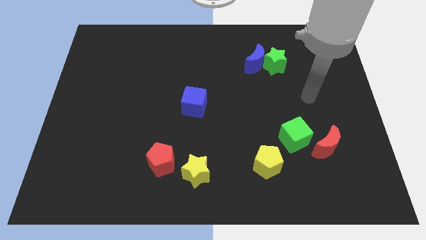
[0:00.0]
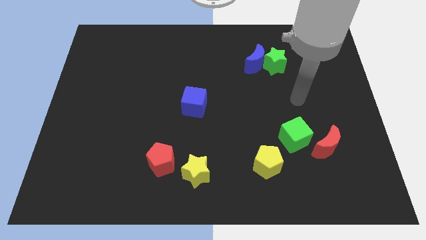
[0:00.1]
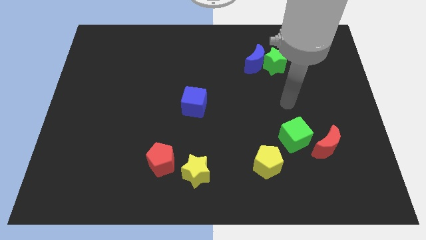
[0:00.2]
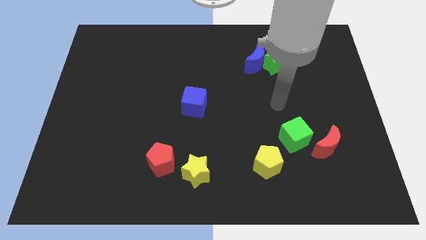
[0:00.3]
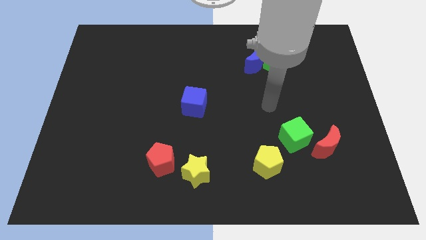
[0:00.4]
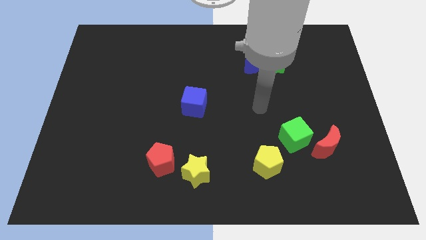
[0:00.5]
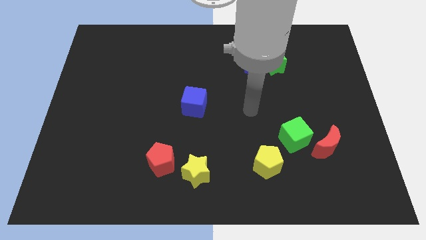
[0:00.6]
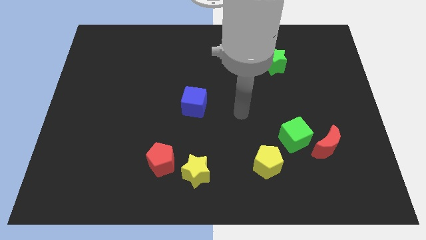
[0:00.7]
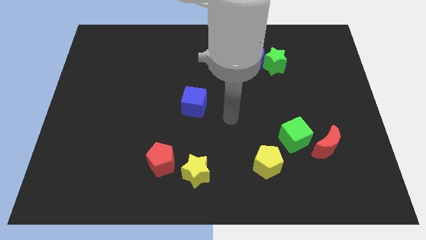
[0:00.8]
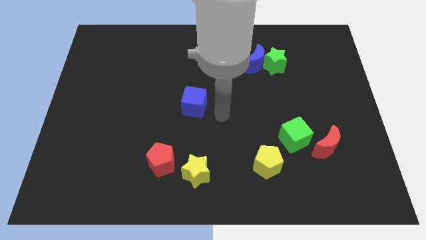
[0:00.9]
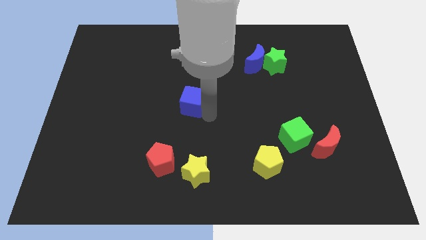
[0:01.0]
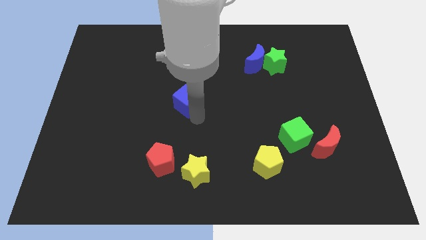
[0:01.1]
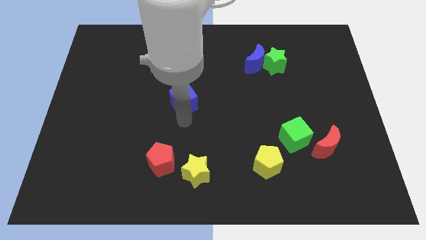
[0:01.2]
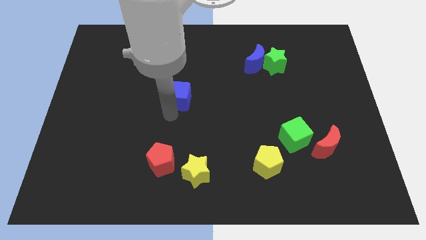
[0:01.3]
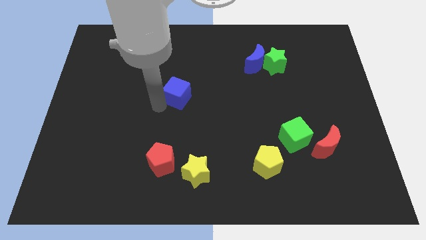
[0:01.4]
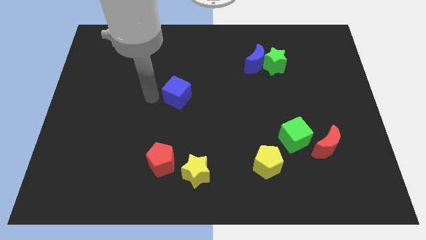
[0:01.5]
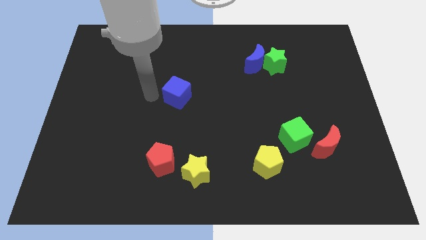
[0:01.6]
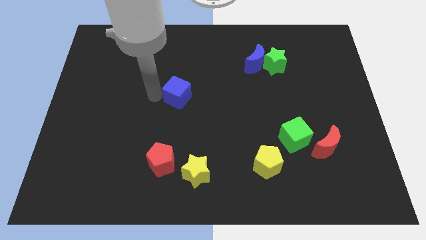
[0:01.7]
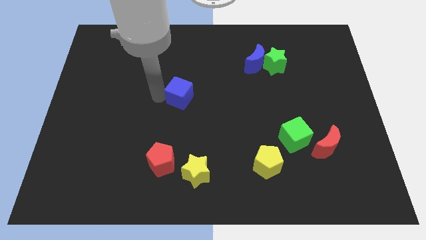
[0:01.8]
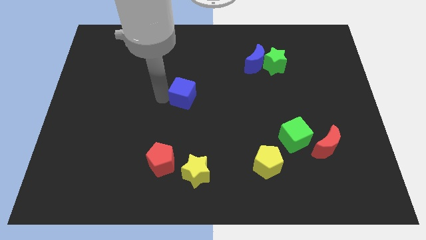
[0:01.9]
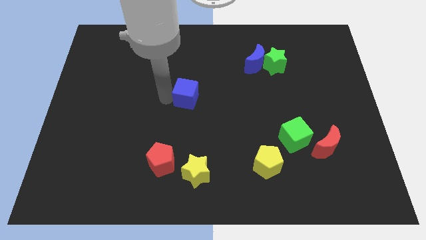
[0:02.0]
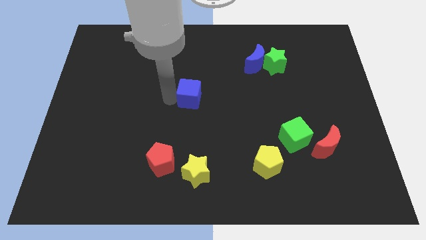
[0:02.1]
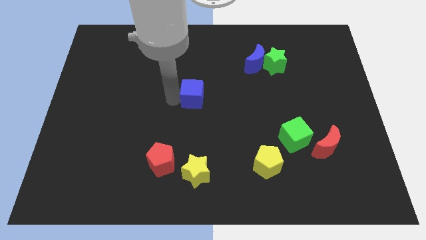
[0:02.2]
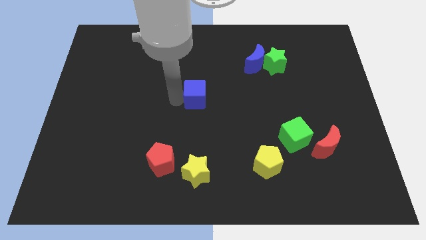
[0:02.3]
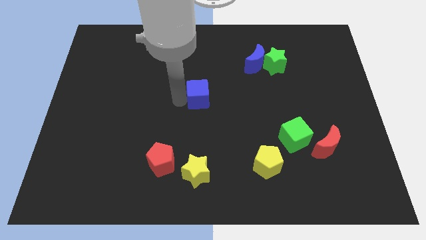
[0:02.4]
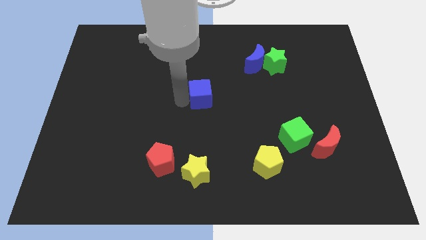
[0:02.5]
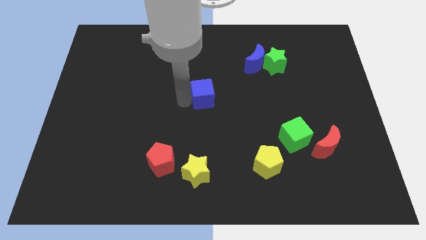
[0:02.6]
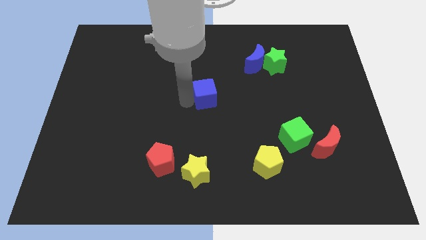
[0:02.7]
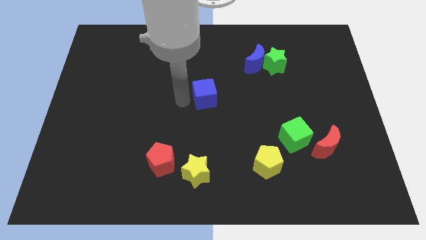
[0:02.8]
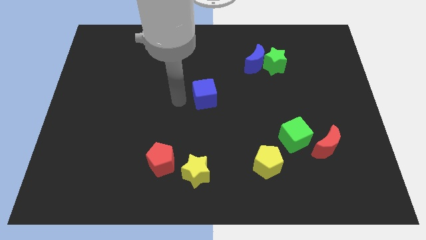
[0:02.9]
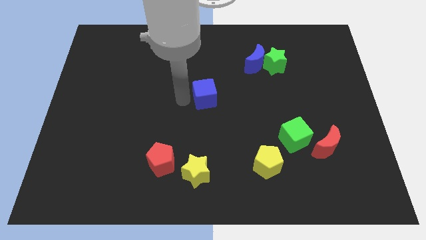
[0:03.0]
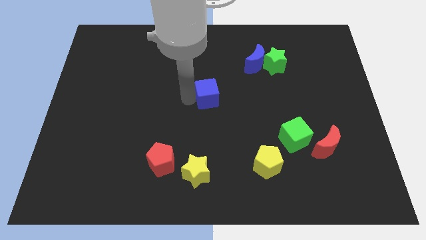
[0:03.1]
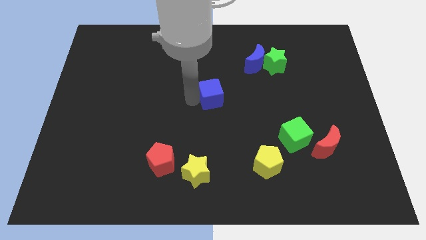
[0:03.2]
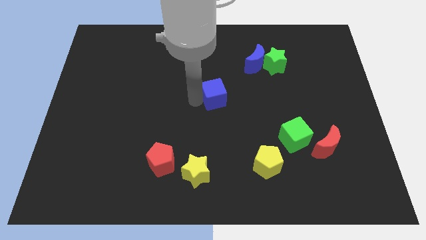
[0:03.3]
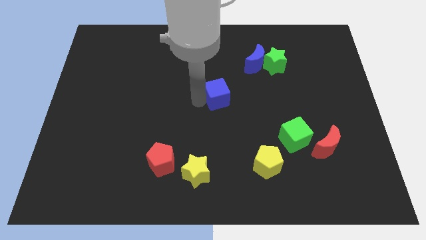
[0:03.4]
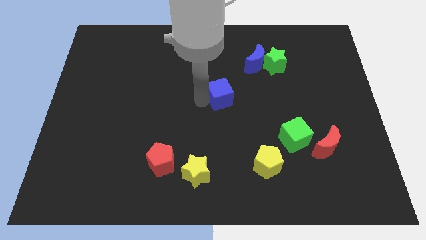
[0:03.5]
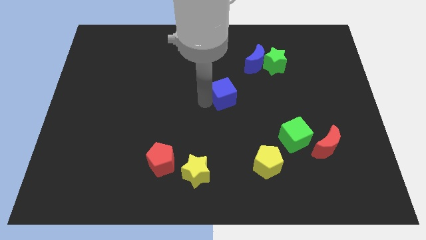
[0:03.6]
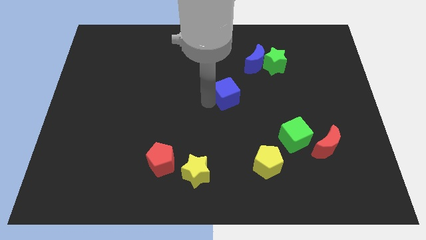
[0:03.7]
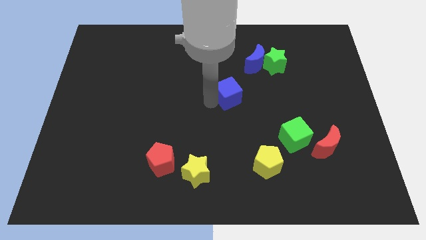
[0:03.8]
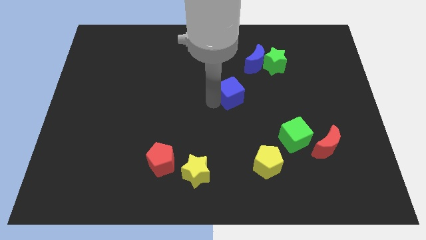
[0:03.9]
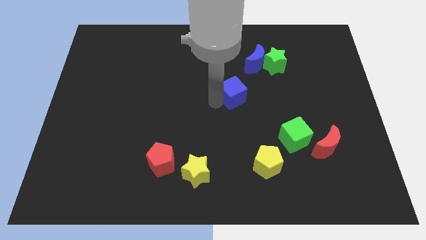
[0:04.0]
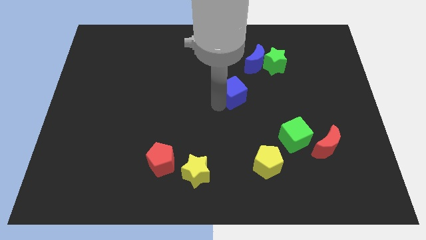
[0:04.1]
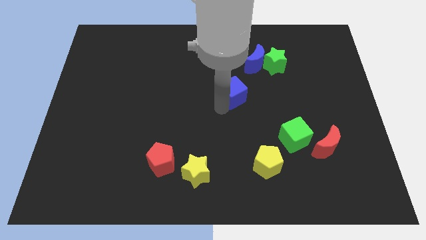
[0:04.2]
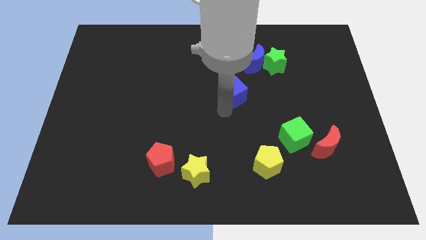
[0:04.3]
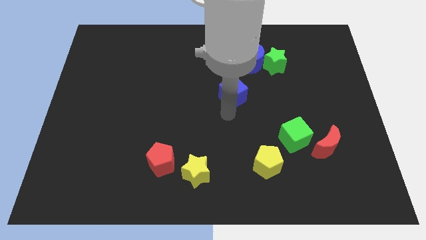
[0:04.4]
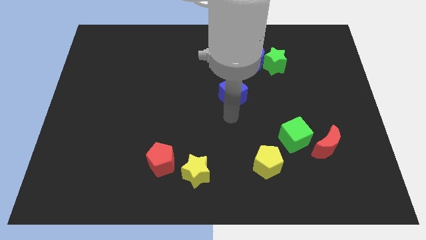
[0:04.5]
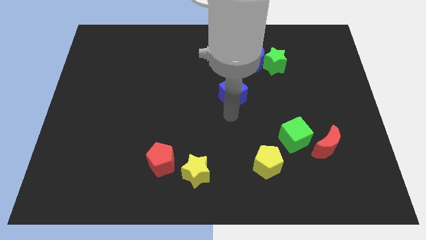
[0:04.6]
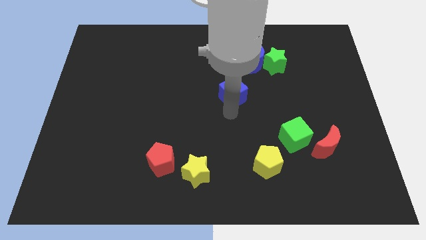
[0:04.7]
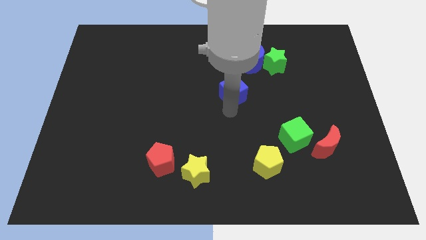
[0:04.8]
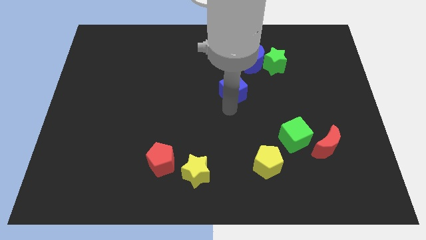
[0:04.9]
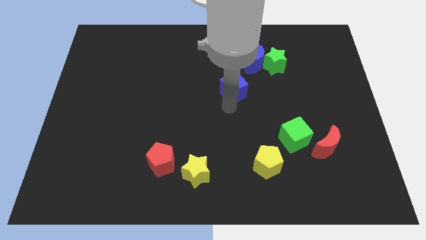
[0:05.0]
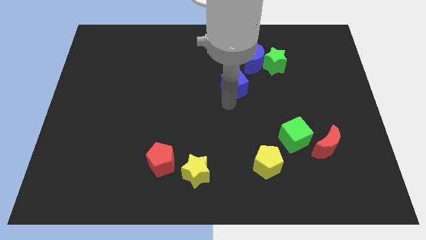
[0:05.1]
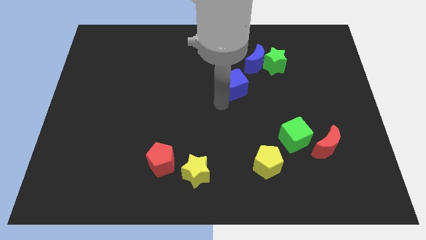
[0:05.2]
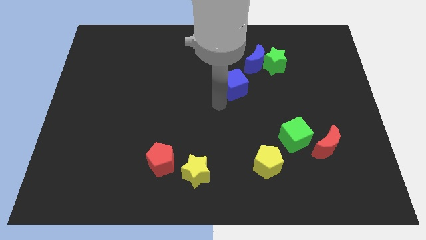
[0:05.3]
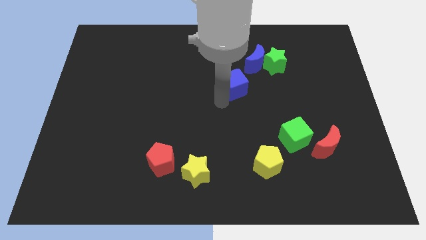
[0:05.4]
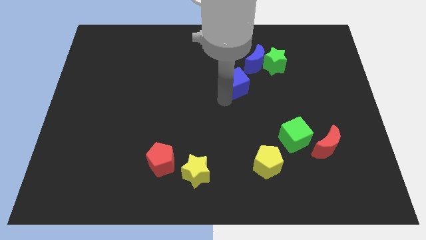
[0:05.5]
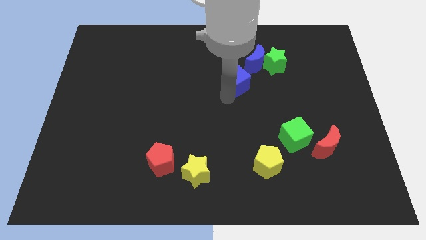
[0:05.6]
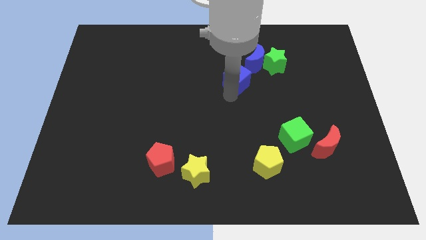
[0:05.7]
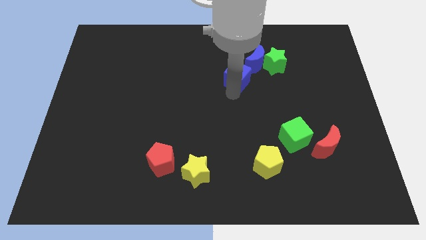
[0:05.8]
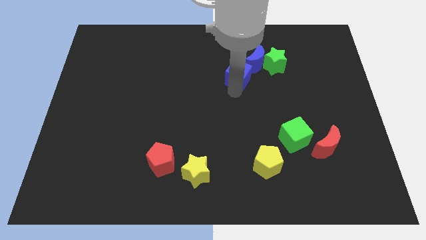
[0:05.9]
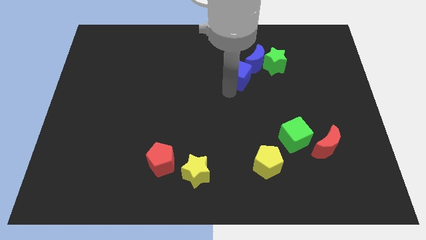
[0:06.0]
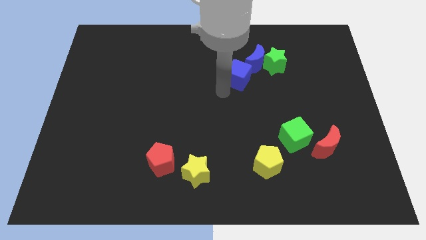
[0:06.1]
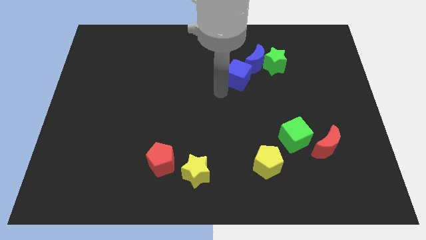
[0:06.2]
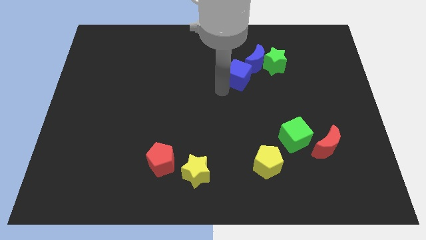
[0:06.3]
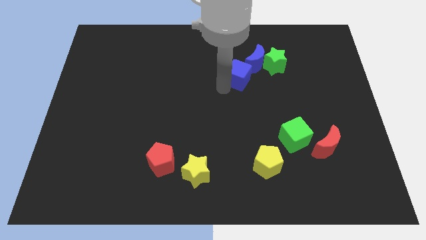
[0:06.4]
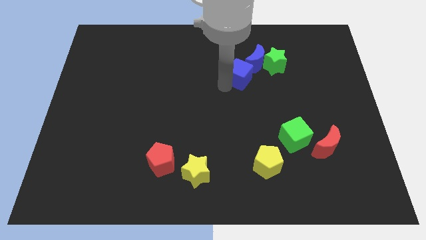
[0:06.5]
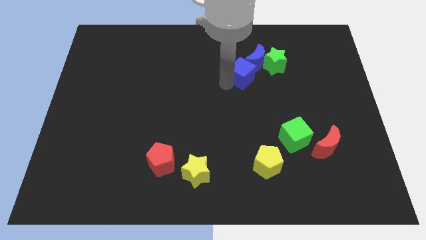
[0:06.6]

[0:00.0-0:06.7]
put the blue cube close to the blue moon
